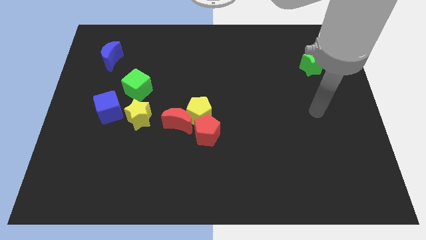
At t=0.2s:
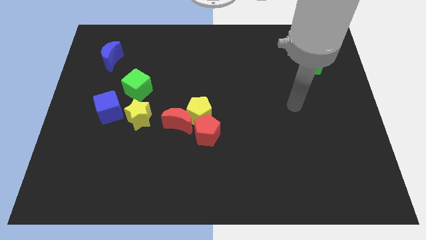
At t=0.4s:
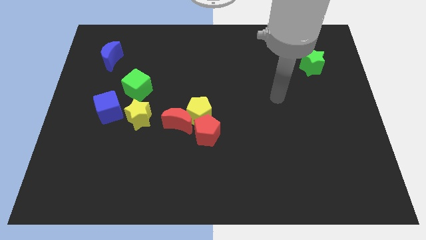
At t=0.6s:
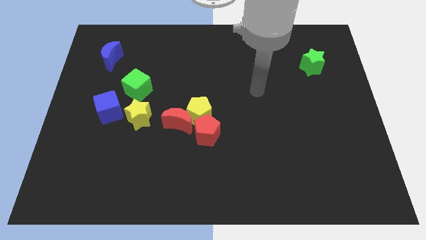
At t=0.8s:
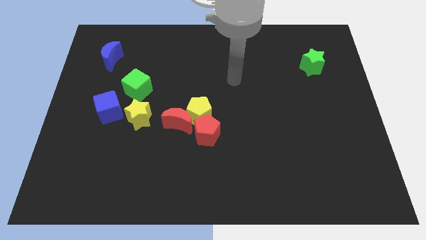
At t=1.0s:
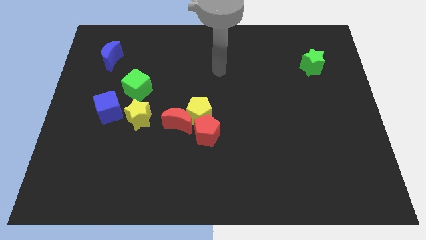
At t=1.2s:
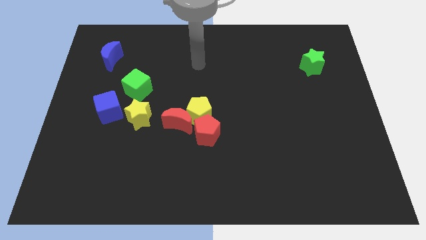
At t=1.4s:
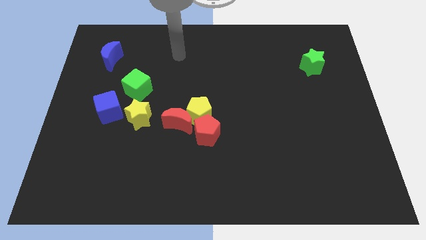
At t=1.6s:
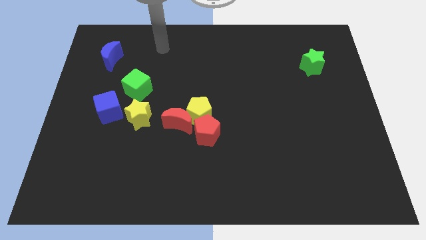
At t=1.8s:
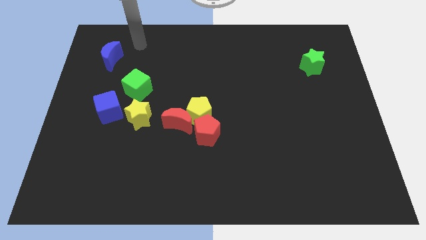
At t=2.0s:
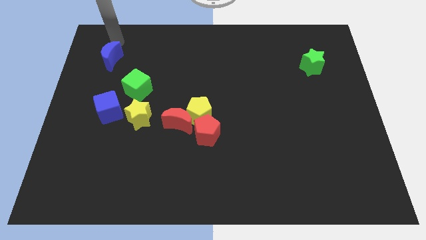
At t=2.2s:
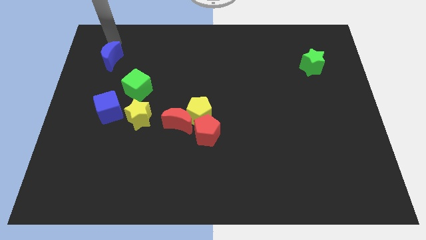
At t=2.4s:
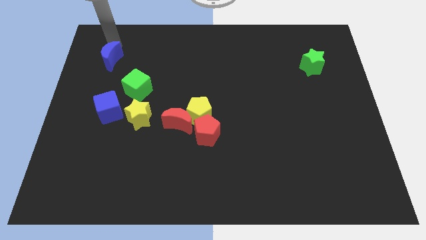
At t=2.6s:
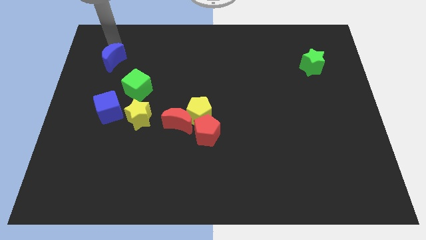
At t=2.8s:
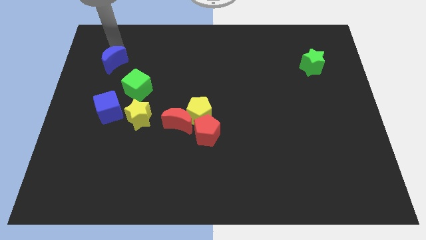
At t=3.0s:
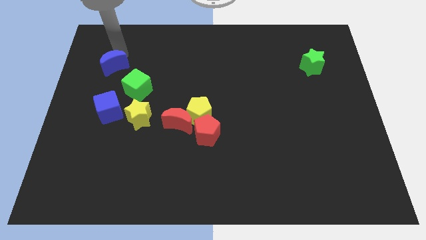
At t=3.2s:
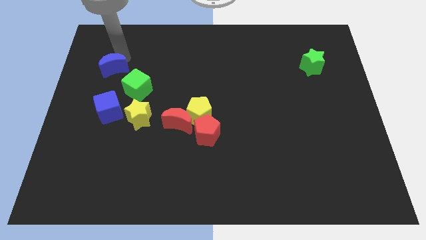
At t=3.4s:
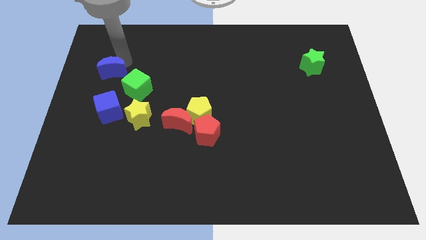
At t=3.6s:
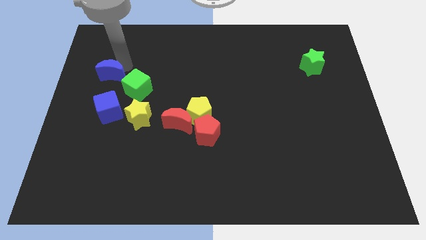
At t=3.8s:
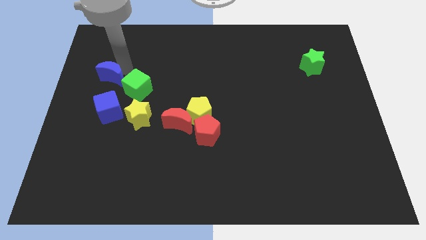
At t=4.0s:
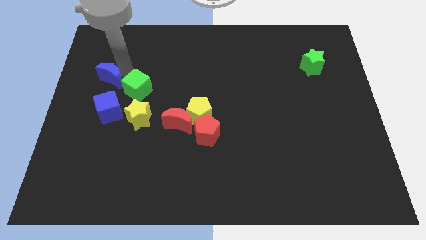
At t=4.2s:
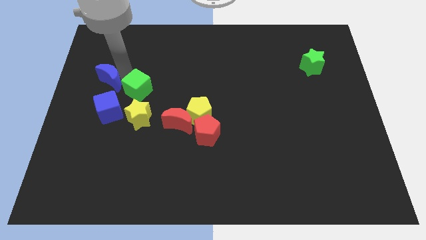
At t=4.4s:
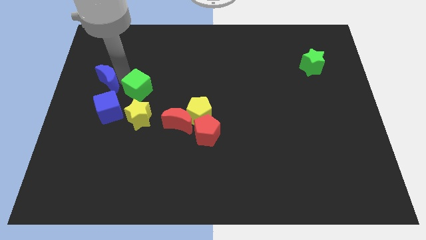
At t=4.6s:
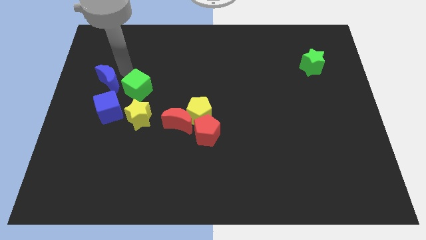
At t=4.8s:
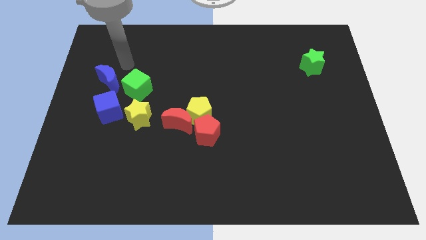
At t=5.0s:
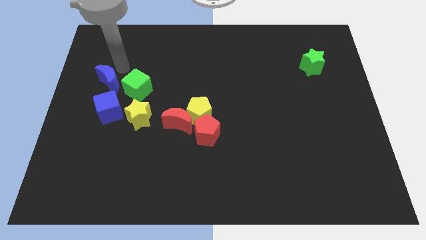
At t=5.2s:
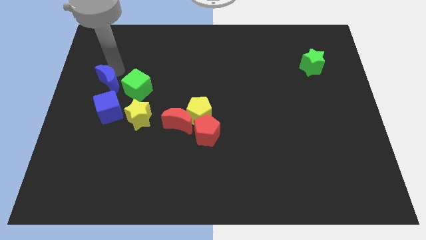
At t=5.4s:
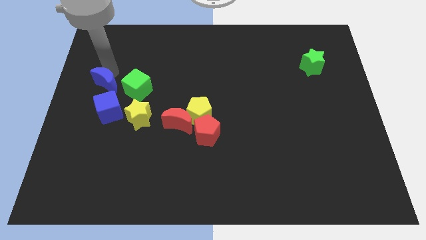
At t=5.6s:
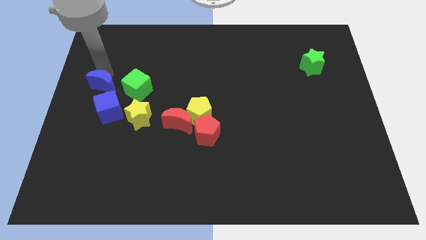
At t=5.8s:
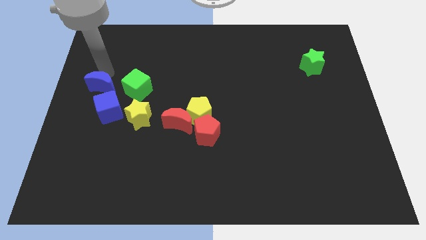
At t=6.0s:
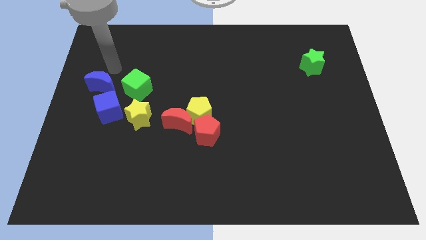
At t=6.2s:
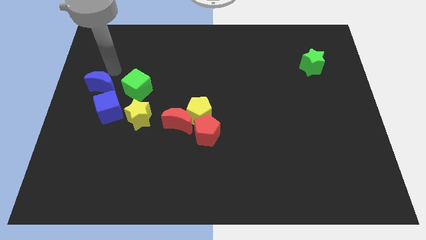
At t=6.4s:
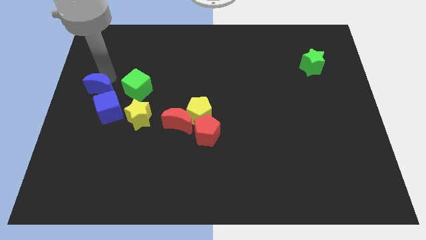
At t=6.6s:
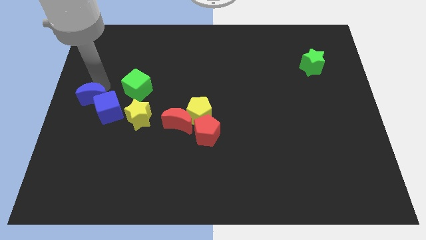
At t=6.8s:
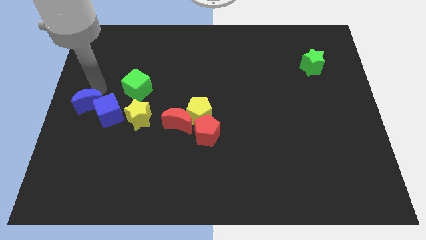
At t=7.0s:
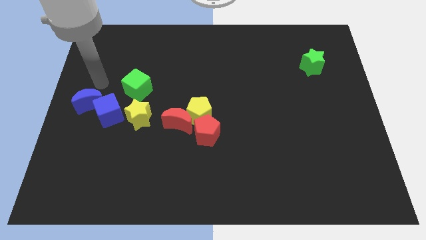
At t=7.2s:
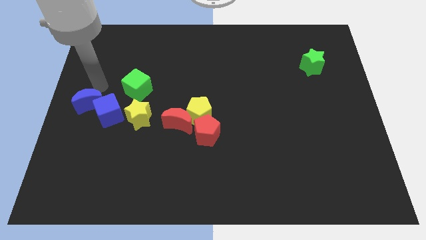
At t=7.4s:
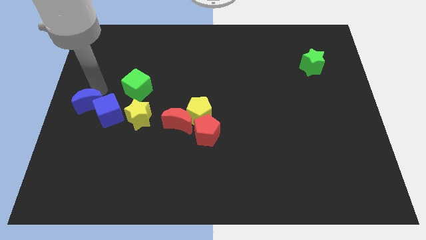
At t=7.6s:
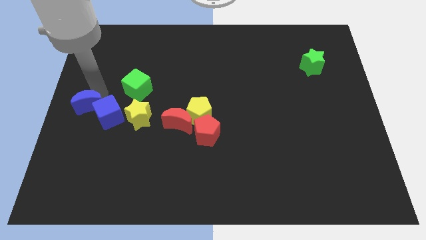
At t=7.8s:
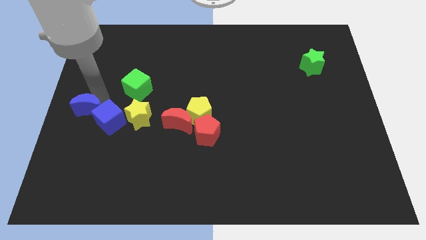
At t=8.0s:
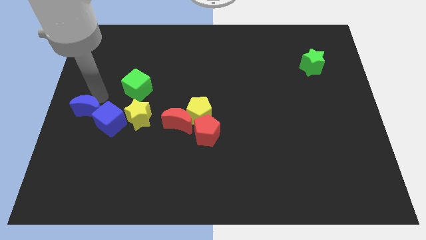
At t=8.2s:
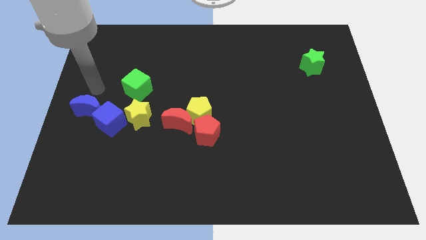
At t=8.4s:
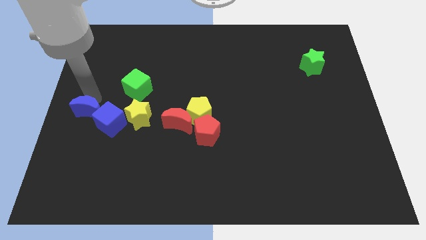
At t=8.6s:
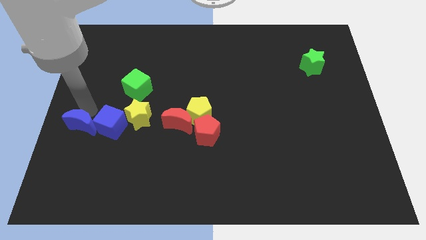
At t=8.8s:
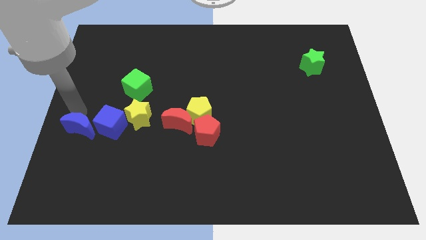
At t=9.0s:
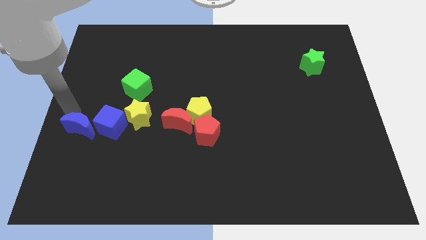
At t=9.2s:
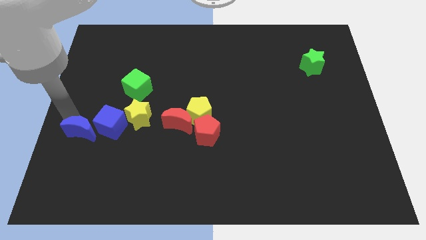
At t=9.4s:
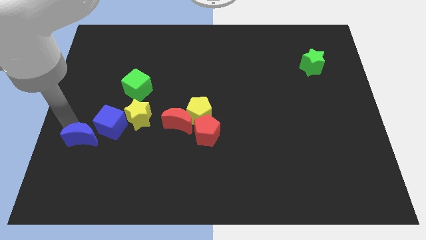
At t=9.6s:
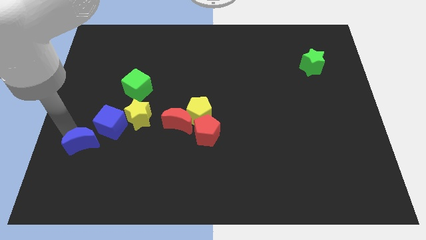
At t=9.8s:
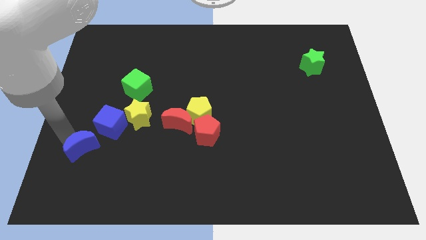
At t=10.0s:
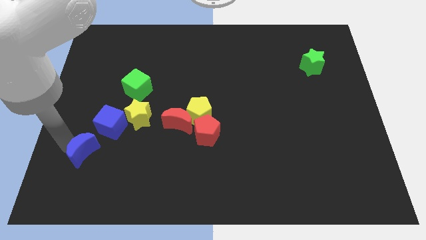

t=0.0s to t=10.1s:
put the blue moon to the bottom side of the blue cube

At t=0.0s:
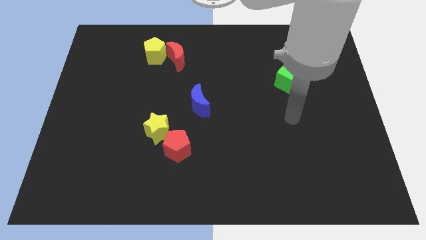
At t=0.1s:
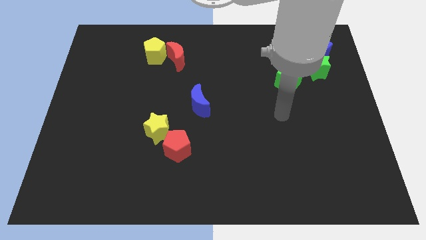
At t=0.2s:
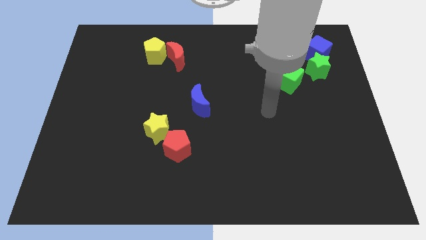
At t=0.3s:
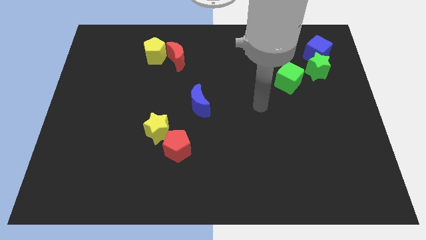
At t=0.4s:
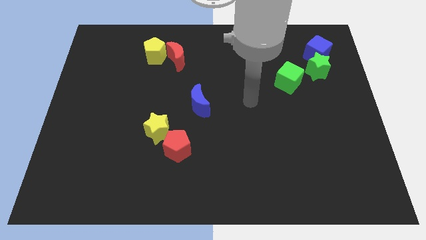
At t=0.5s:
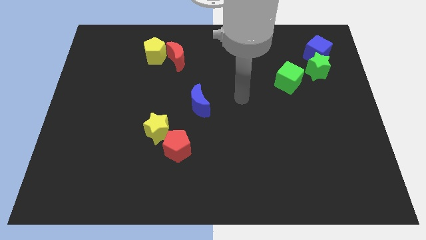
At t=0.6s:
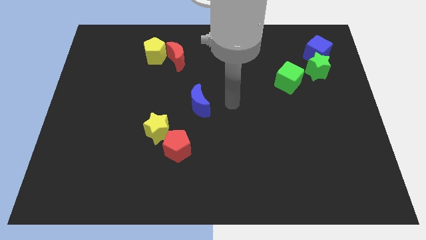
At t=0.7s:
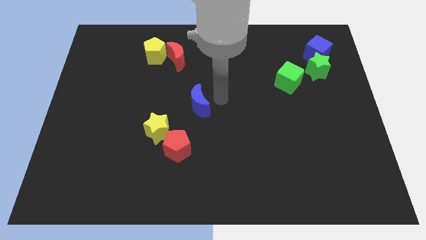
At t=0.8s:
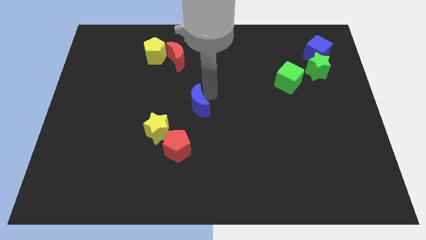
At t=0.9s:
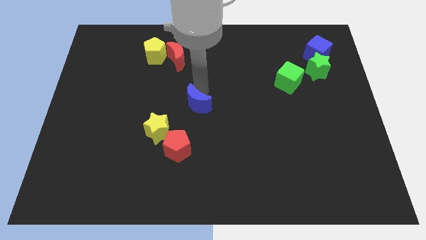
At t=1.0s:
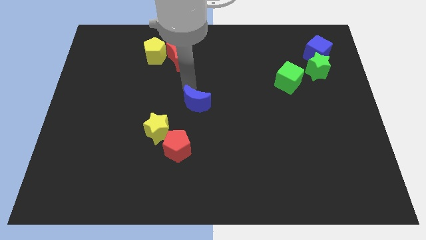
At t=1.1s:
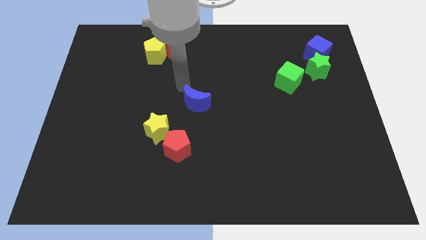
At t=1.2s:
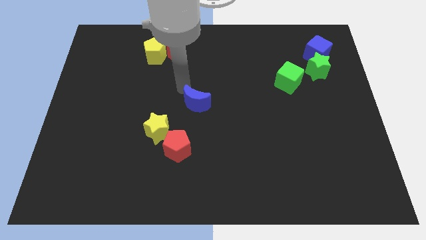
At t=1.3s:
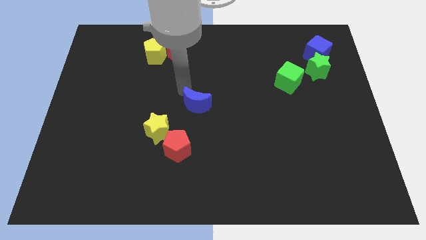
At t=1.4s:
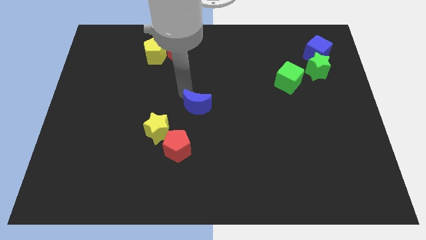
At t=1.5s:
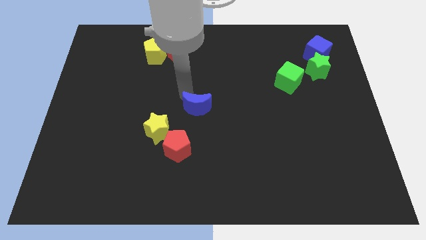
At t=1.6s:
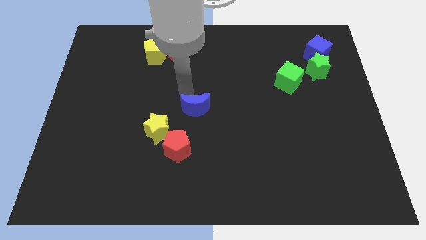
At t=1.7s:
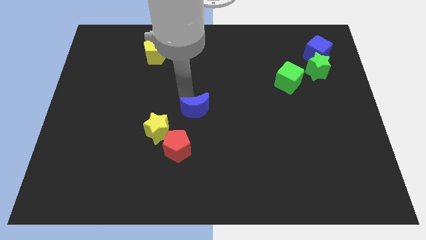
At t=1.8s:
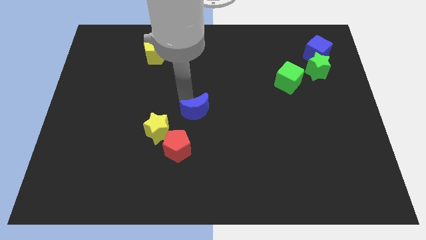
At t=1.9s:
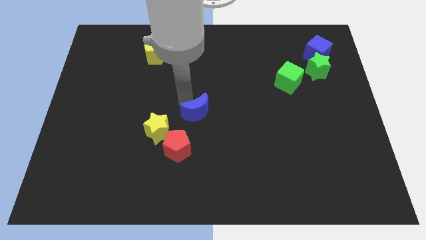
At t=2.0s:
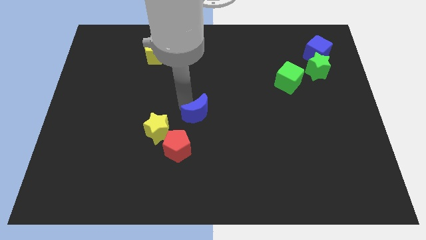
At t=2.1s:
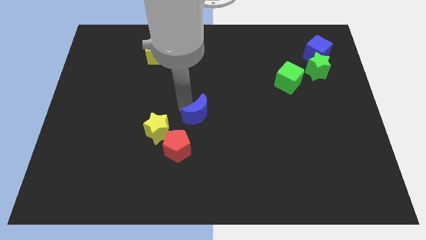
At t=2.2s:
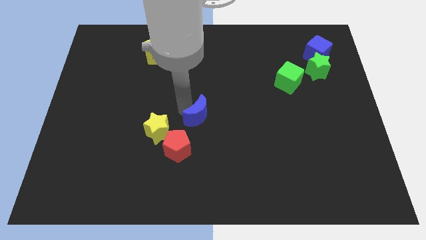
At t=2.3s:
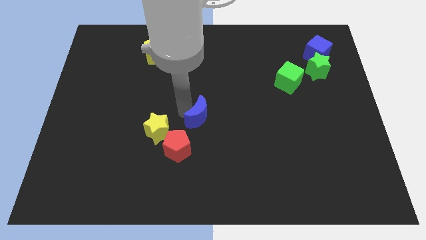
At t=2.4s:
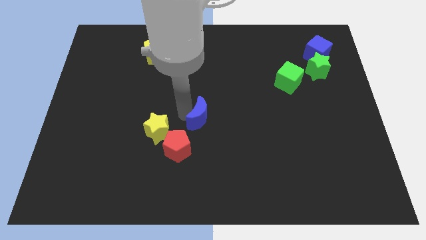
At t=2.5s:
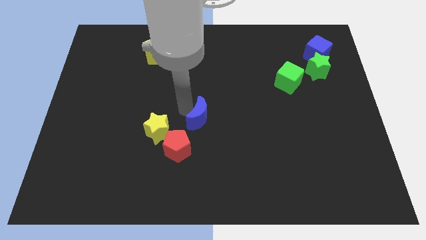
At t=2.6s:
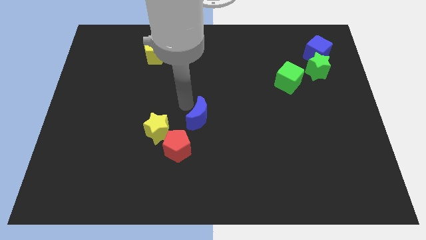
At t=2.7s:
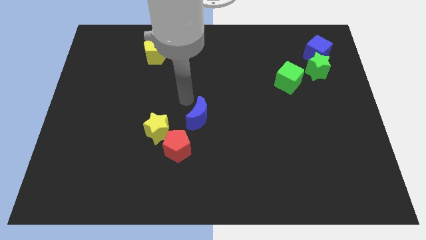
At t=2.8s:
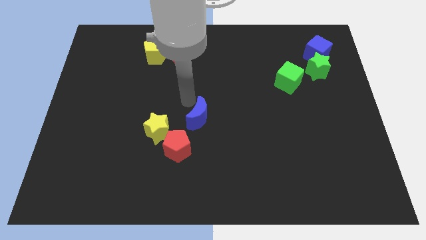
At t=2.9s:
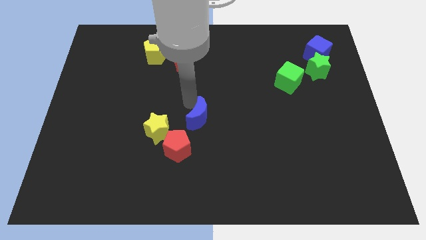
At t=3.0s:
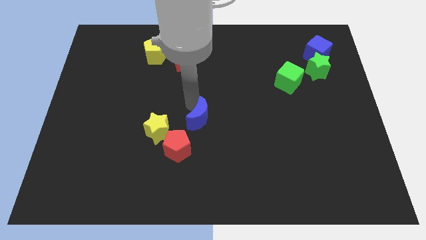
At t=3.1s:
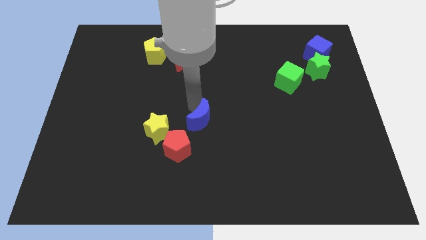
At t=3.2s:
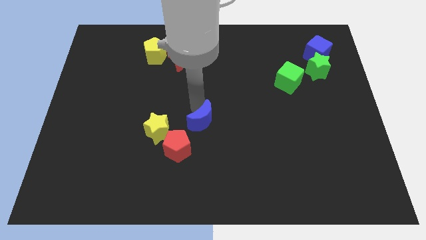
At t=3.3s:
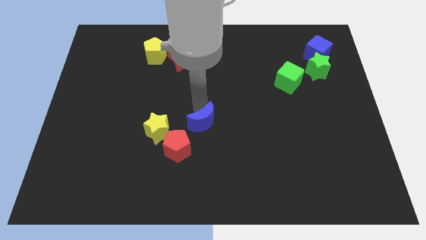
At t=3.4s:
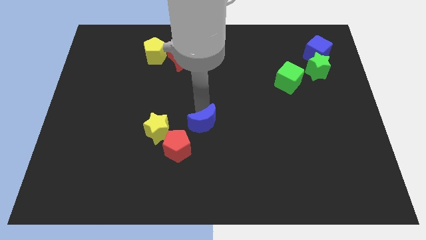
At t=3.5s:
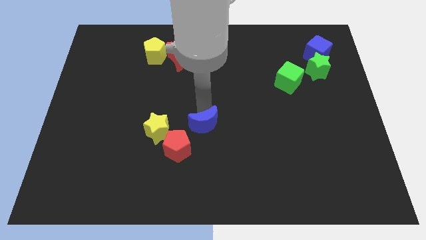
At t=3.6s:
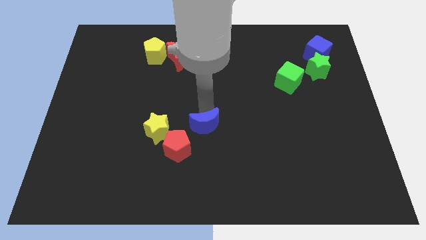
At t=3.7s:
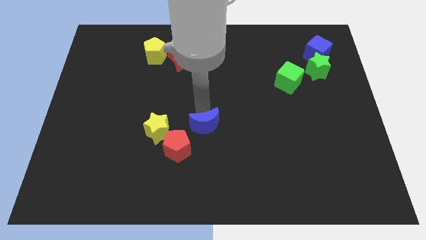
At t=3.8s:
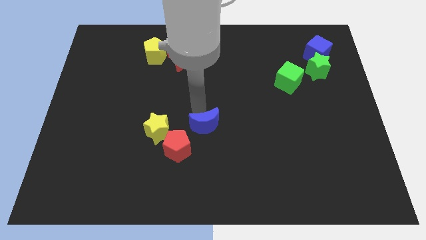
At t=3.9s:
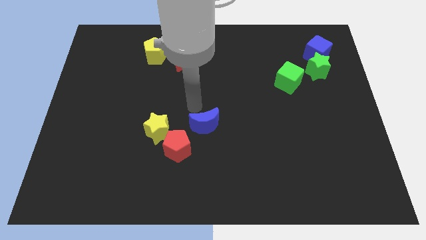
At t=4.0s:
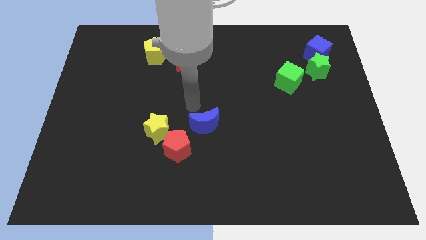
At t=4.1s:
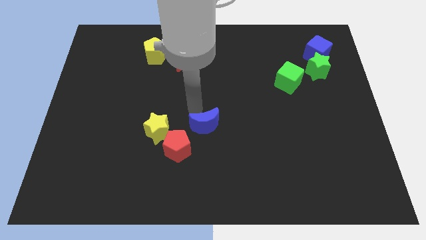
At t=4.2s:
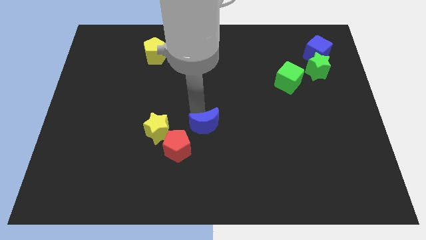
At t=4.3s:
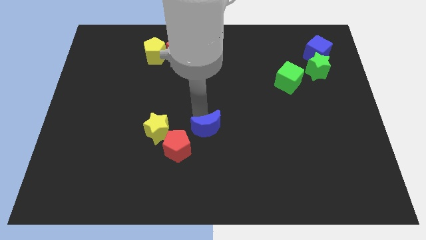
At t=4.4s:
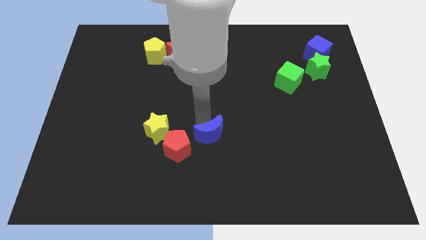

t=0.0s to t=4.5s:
slide the blue moon right of the red pentagon
